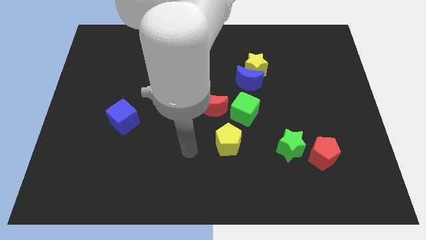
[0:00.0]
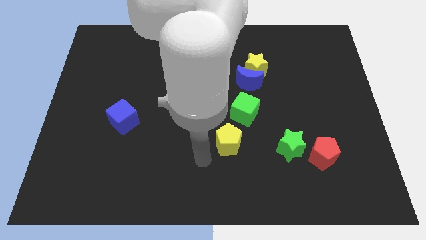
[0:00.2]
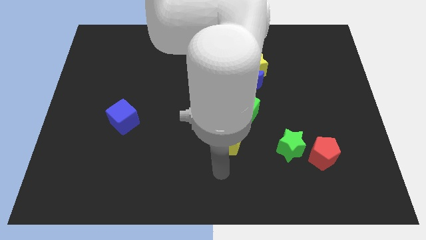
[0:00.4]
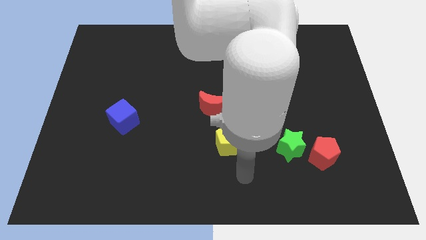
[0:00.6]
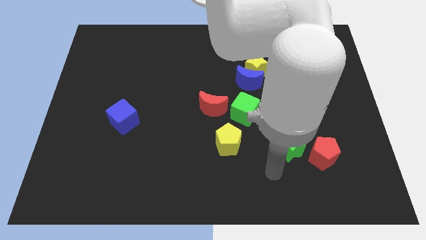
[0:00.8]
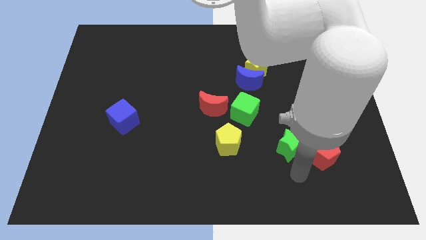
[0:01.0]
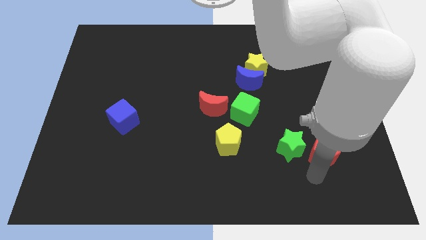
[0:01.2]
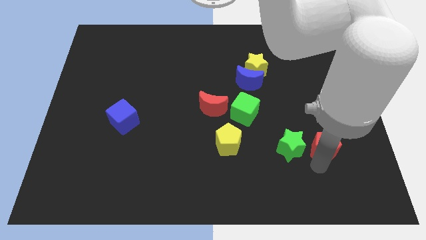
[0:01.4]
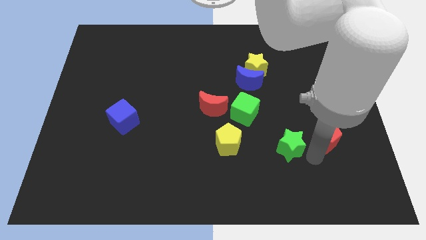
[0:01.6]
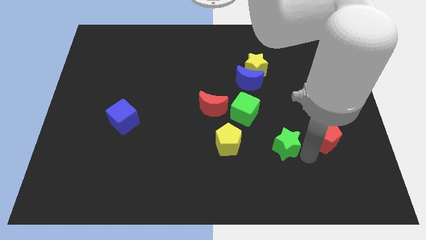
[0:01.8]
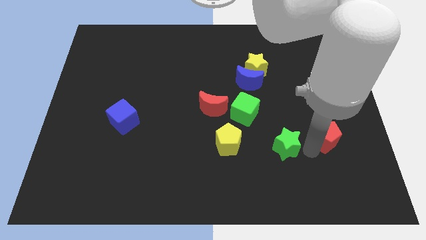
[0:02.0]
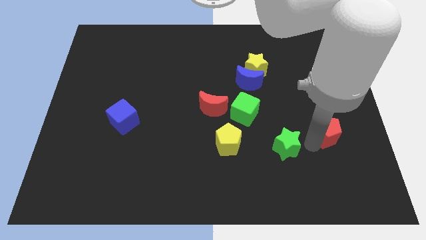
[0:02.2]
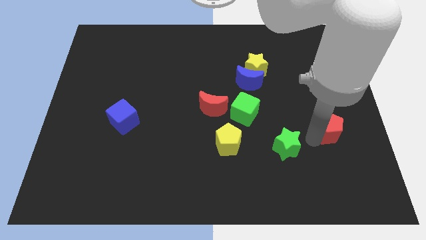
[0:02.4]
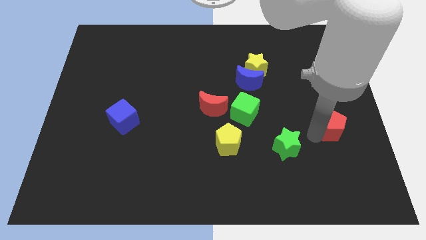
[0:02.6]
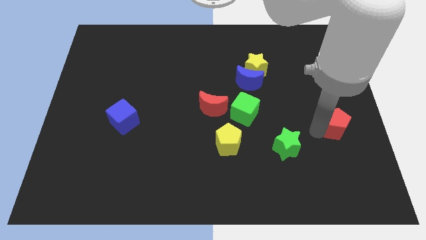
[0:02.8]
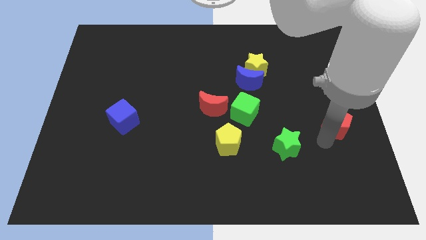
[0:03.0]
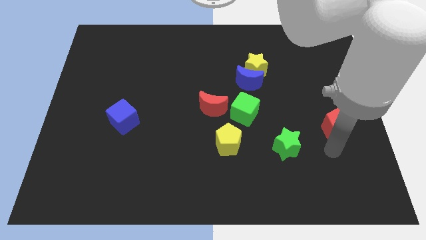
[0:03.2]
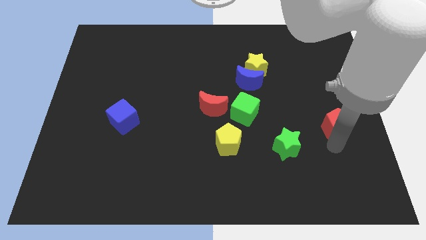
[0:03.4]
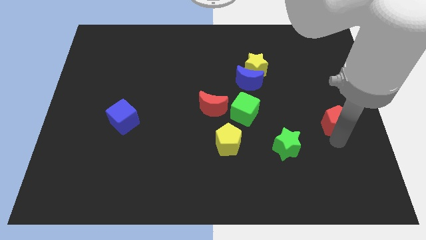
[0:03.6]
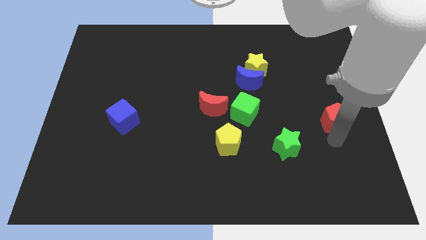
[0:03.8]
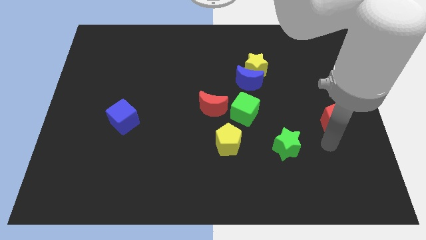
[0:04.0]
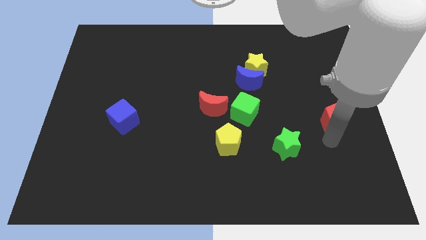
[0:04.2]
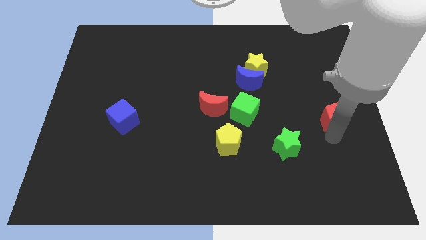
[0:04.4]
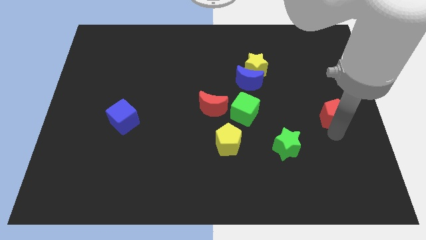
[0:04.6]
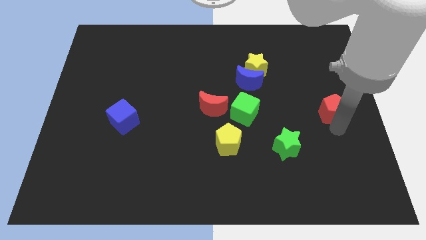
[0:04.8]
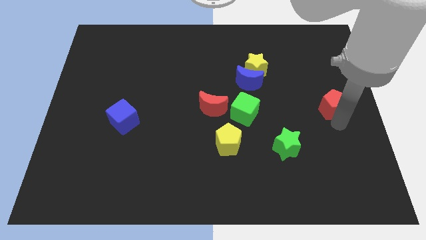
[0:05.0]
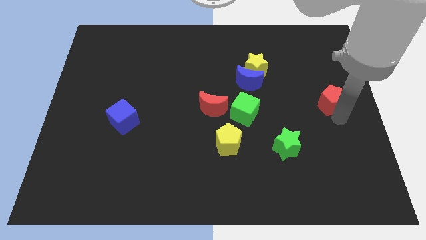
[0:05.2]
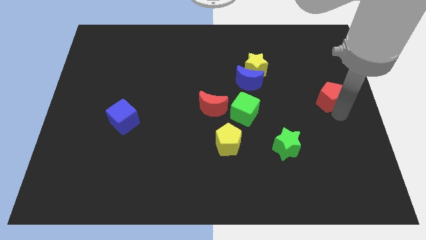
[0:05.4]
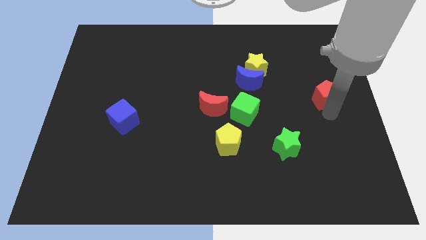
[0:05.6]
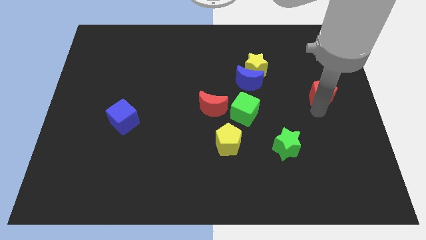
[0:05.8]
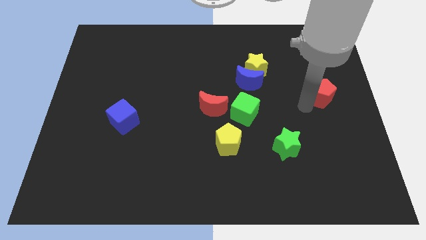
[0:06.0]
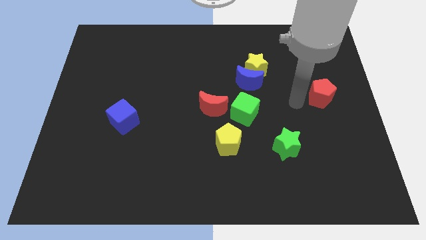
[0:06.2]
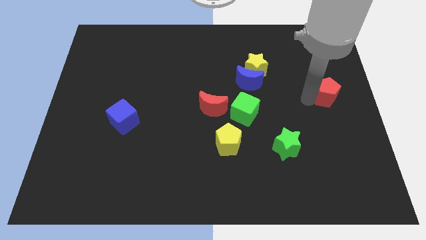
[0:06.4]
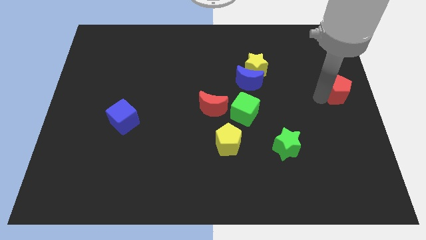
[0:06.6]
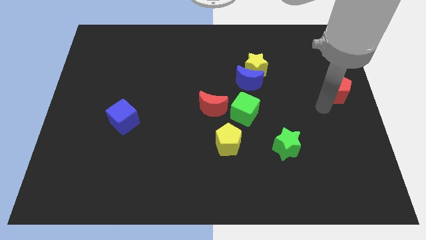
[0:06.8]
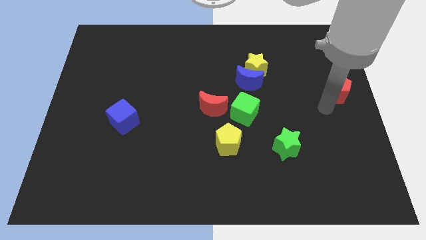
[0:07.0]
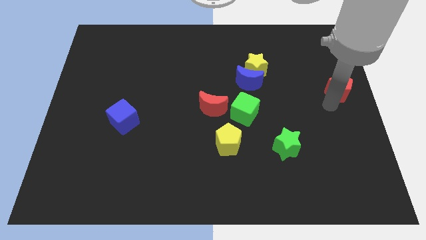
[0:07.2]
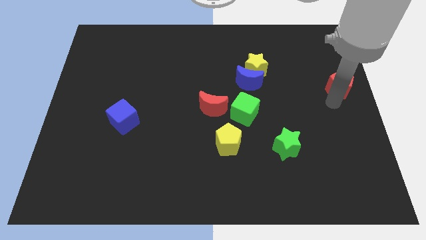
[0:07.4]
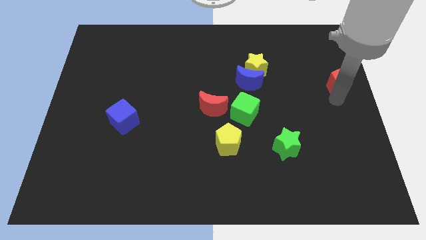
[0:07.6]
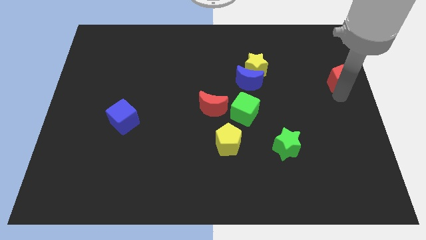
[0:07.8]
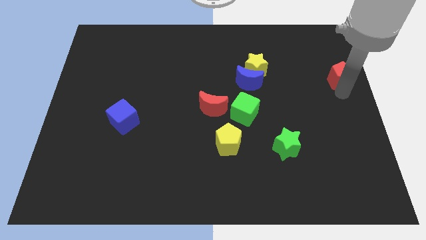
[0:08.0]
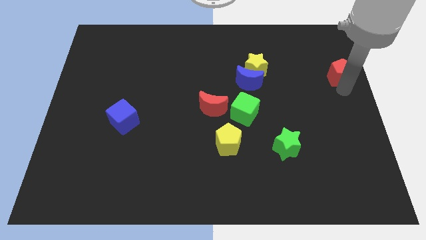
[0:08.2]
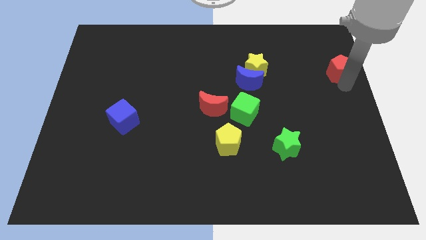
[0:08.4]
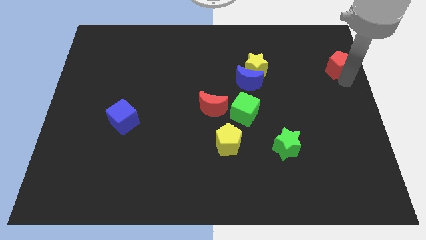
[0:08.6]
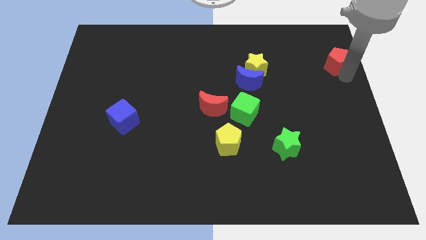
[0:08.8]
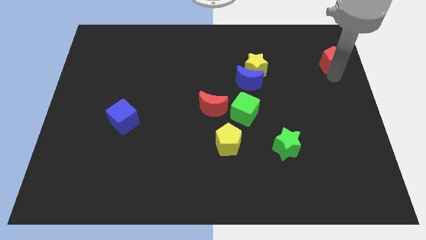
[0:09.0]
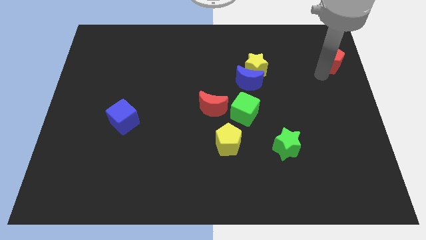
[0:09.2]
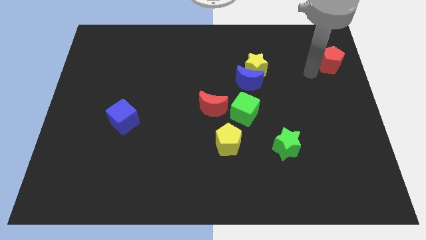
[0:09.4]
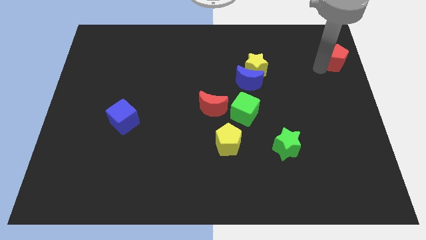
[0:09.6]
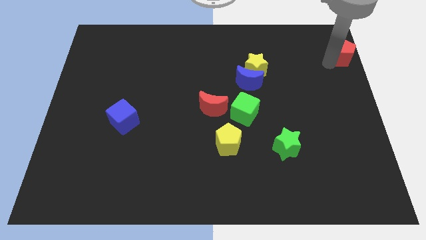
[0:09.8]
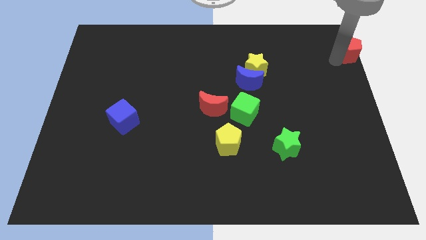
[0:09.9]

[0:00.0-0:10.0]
put the red pentagon to the top right of the board

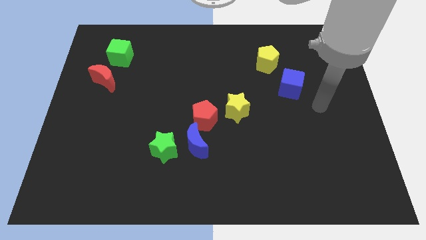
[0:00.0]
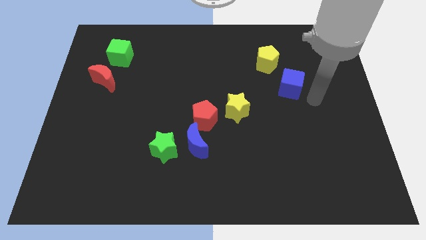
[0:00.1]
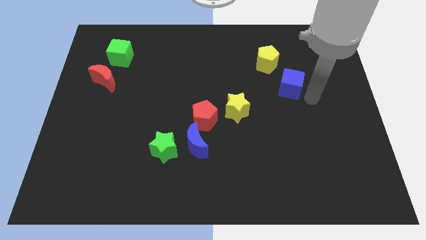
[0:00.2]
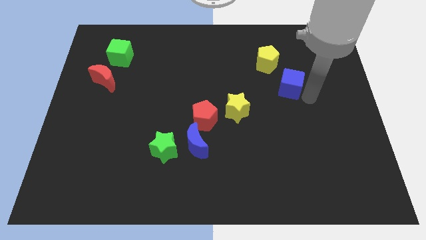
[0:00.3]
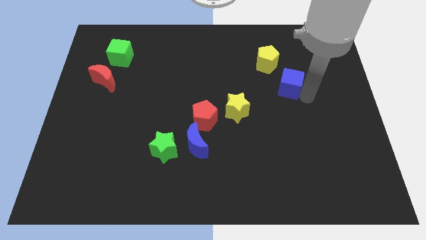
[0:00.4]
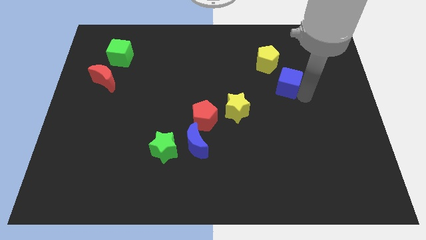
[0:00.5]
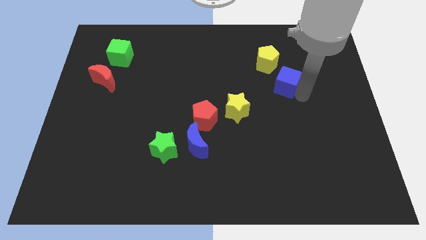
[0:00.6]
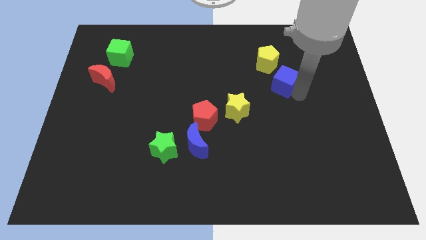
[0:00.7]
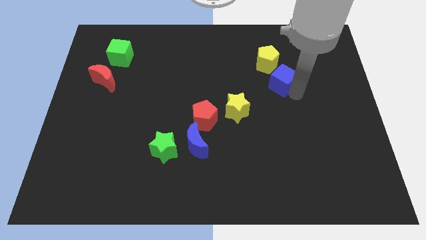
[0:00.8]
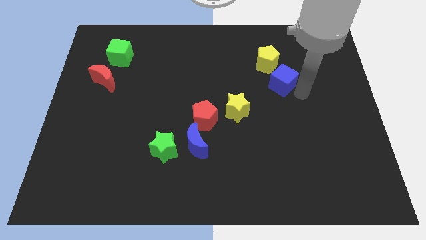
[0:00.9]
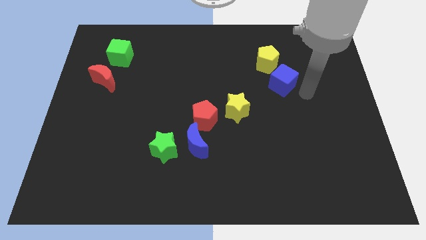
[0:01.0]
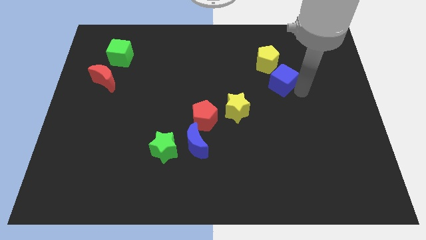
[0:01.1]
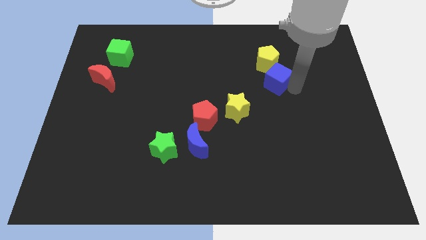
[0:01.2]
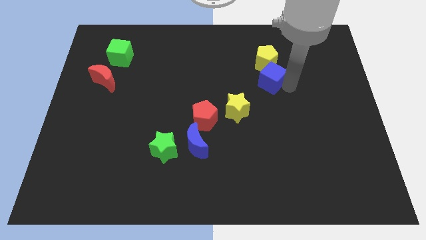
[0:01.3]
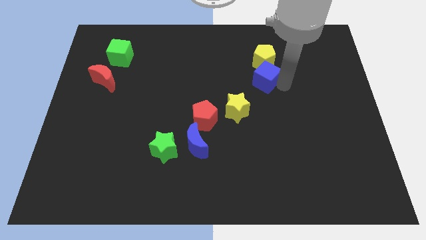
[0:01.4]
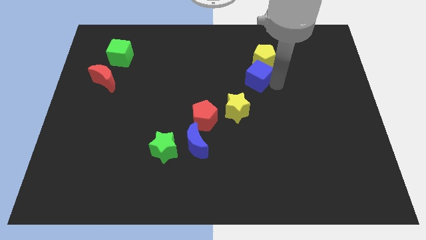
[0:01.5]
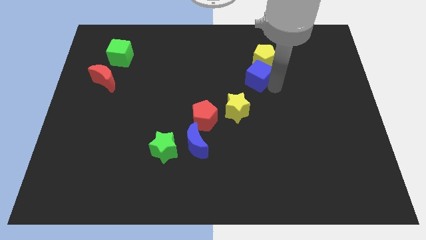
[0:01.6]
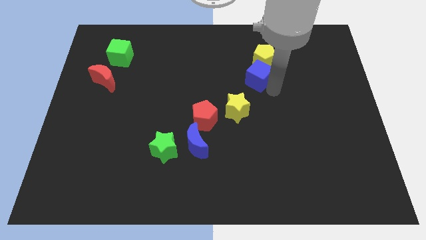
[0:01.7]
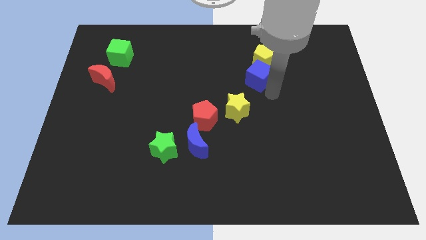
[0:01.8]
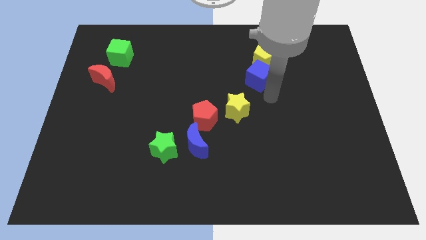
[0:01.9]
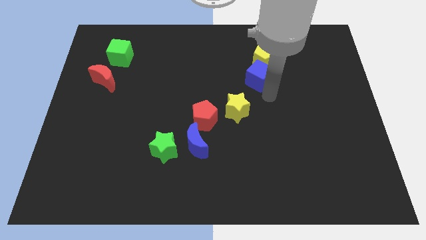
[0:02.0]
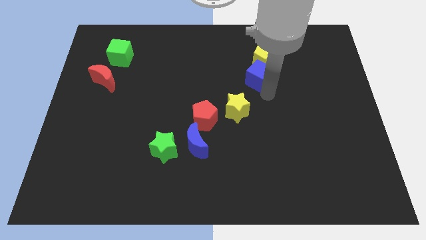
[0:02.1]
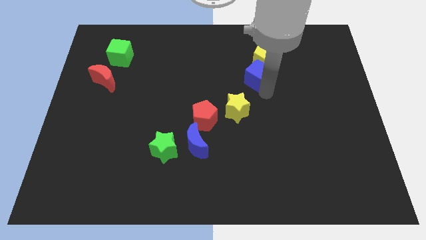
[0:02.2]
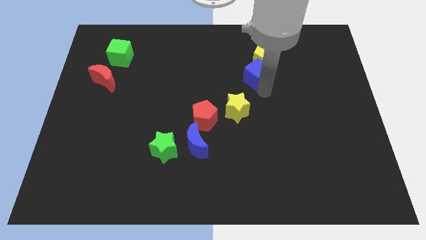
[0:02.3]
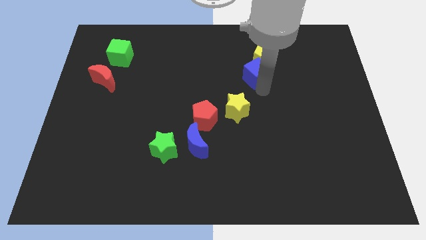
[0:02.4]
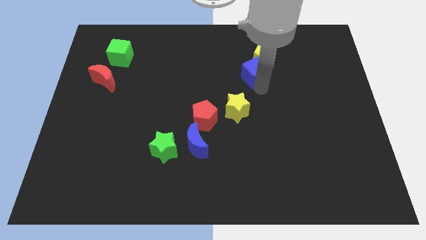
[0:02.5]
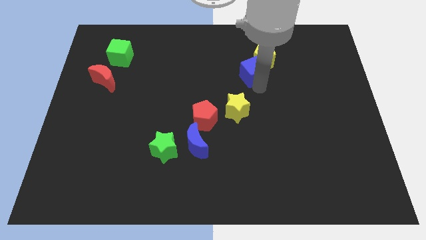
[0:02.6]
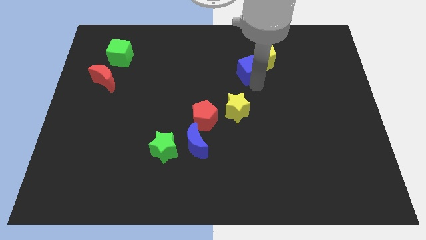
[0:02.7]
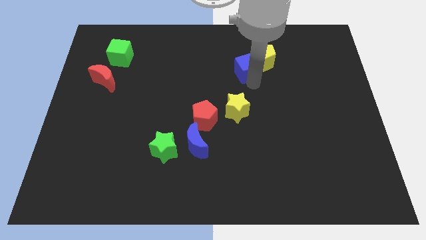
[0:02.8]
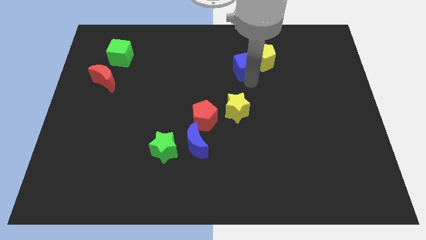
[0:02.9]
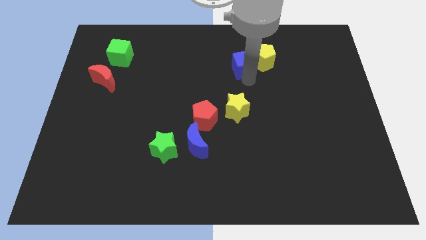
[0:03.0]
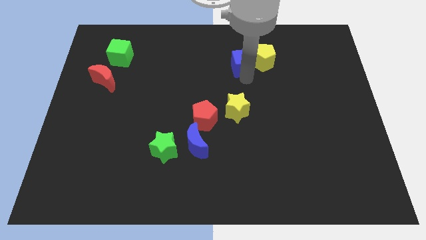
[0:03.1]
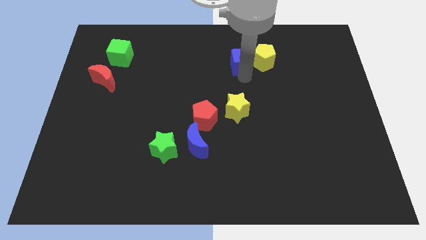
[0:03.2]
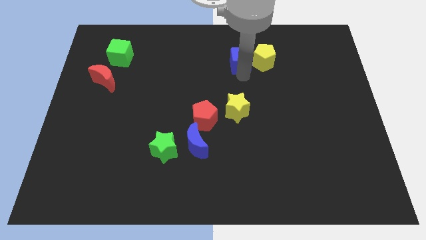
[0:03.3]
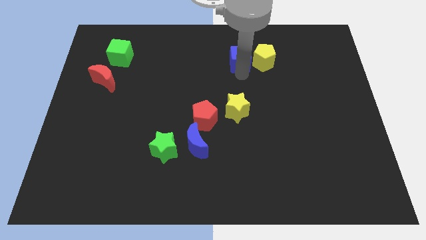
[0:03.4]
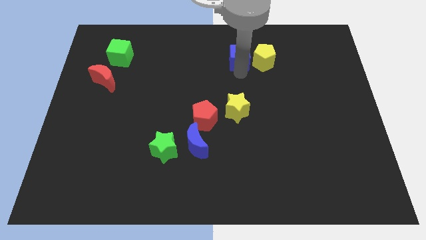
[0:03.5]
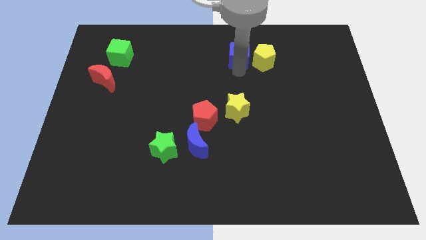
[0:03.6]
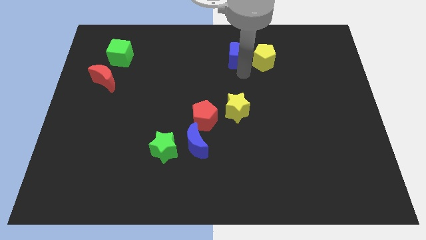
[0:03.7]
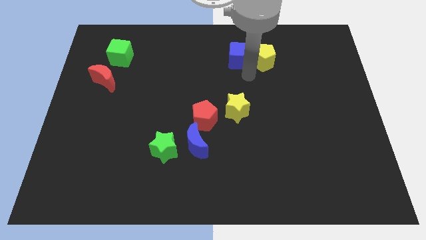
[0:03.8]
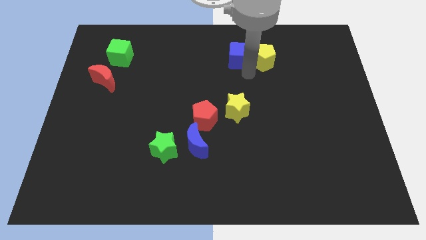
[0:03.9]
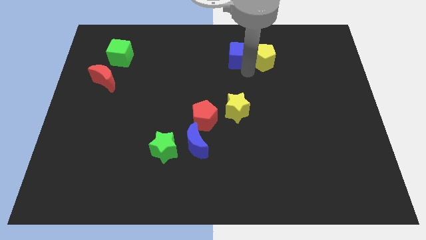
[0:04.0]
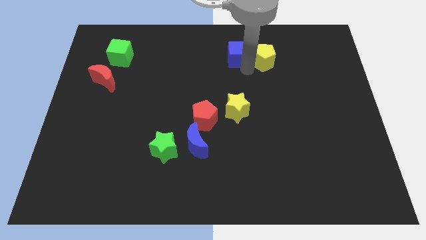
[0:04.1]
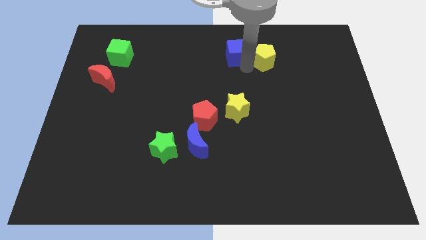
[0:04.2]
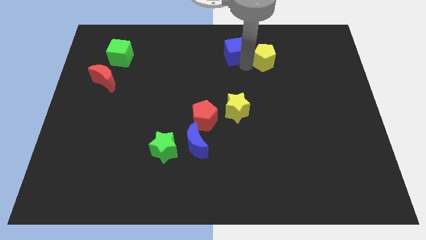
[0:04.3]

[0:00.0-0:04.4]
push the blue cube to the top
